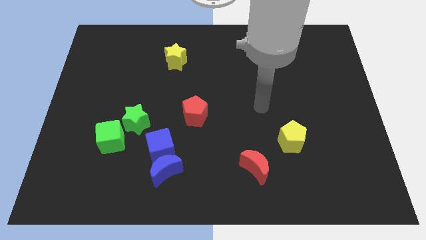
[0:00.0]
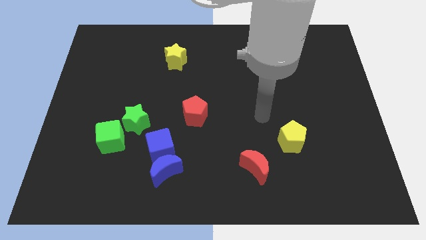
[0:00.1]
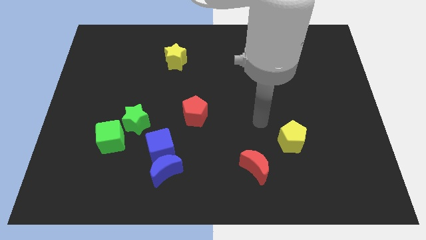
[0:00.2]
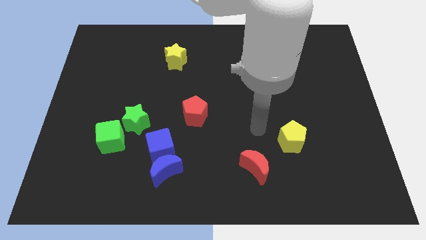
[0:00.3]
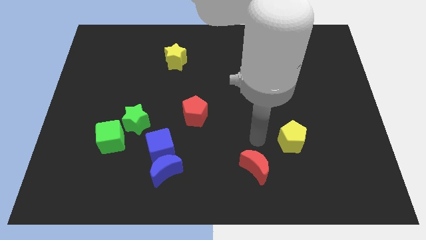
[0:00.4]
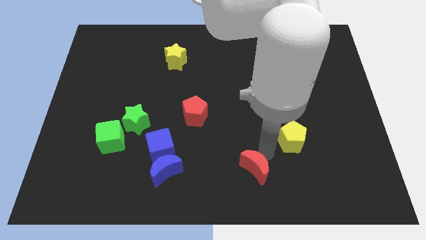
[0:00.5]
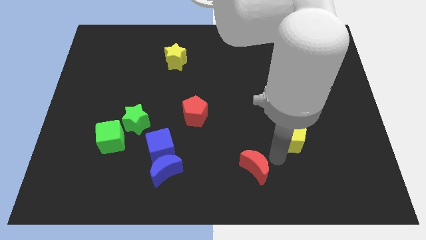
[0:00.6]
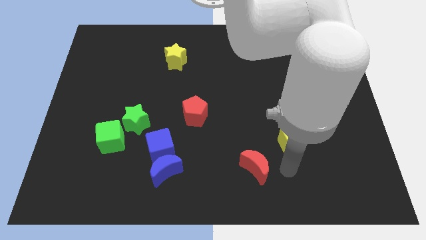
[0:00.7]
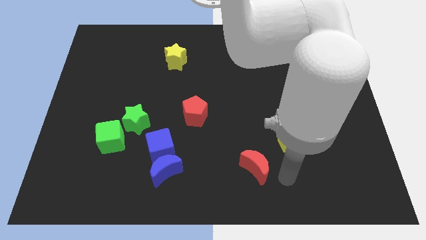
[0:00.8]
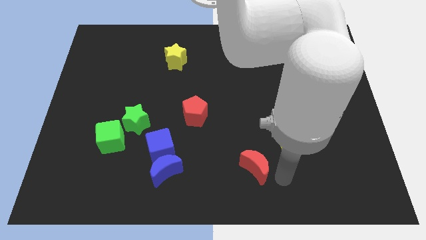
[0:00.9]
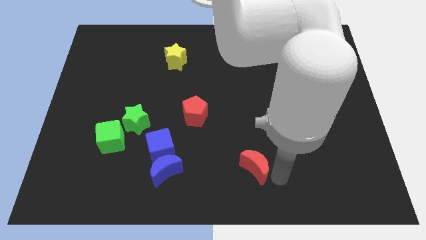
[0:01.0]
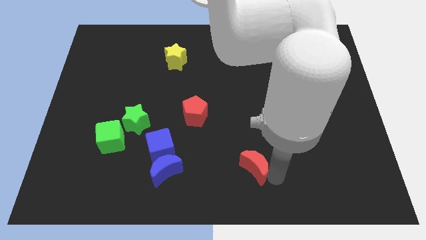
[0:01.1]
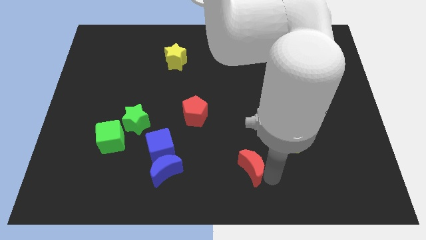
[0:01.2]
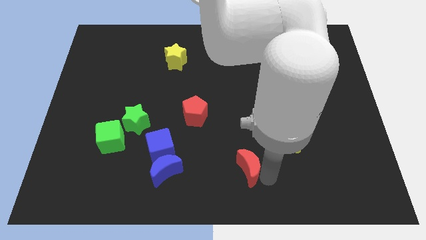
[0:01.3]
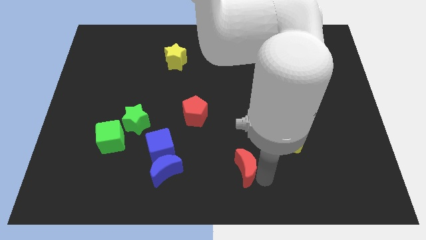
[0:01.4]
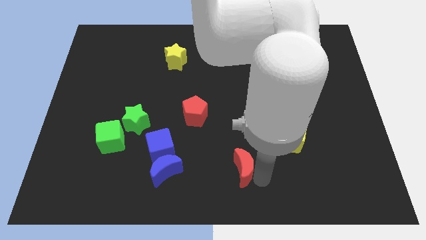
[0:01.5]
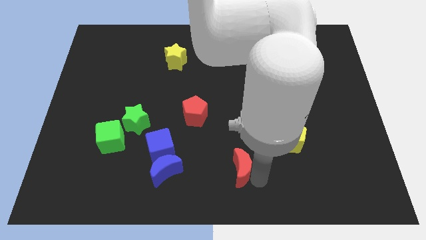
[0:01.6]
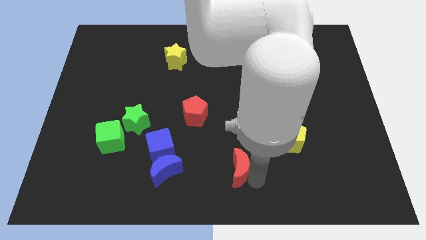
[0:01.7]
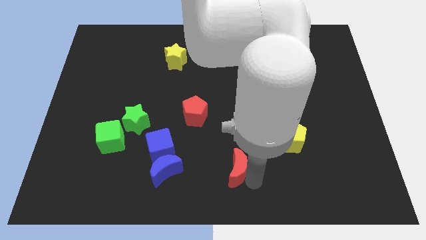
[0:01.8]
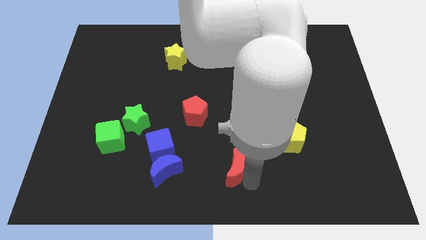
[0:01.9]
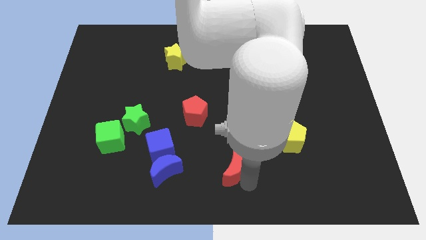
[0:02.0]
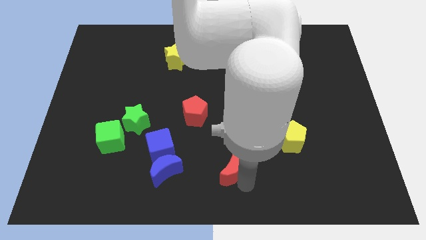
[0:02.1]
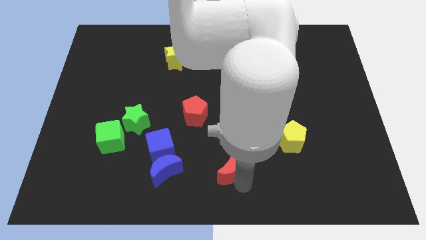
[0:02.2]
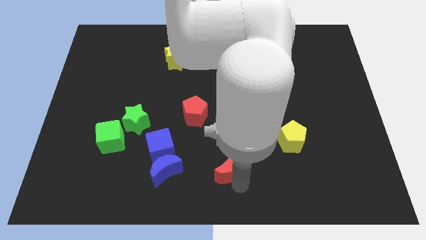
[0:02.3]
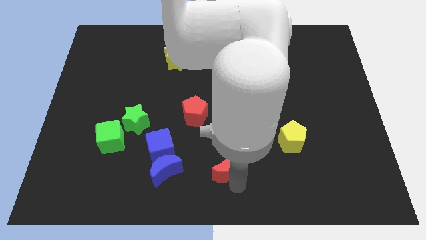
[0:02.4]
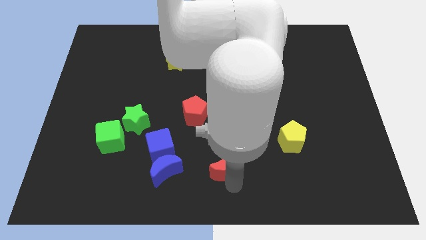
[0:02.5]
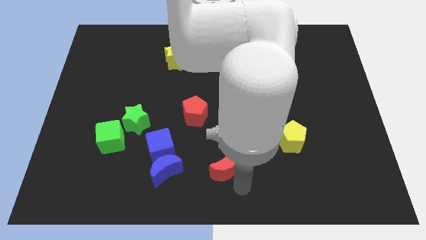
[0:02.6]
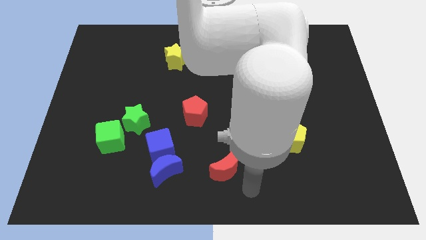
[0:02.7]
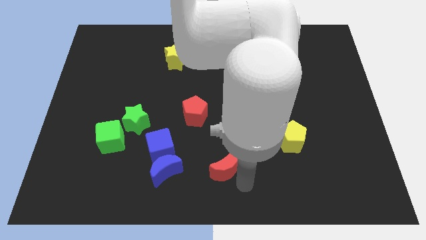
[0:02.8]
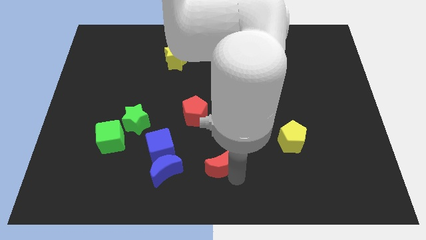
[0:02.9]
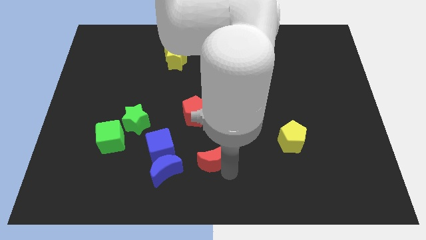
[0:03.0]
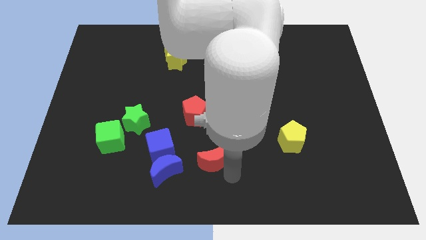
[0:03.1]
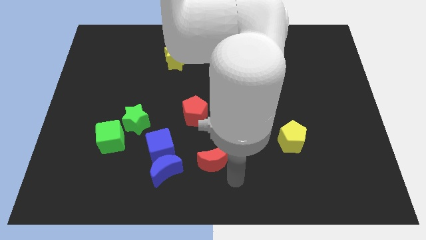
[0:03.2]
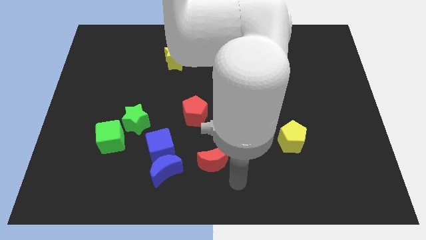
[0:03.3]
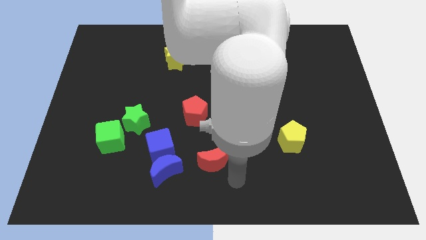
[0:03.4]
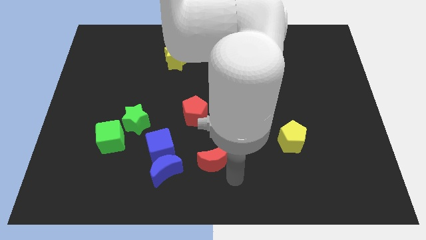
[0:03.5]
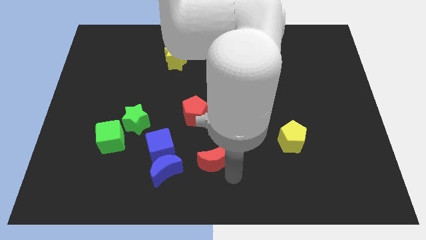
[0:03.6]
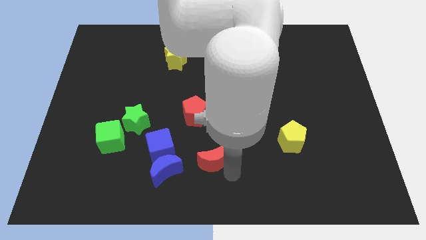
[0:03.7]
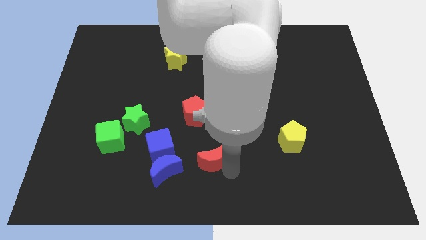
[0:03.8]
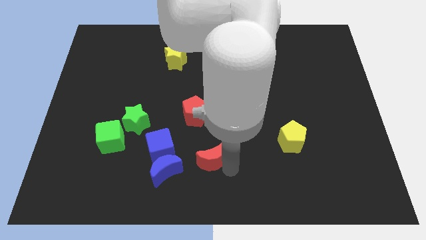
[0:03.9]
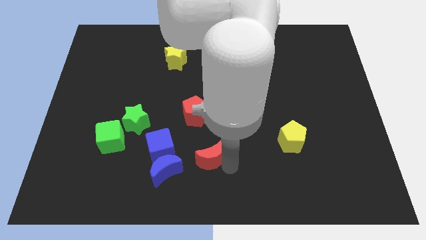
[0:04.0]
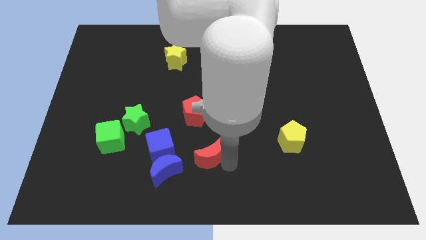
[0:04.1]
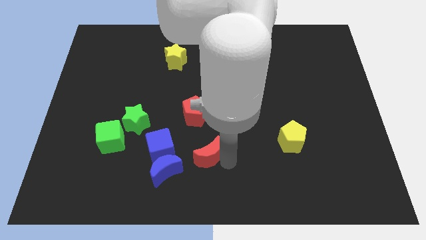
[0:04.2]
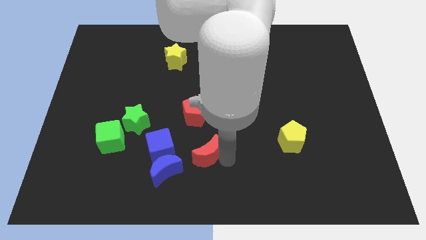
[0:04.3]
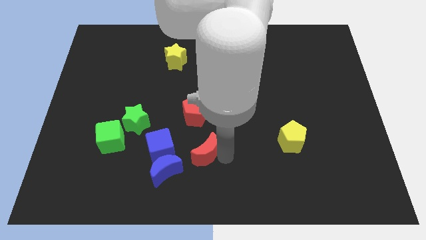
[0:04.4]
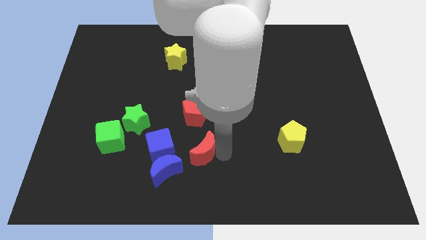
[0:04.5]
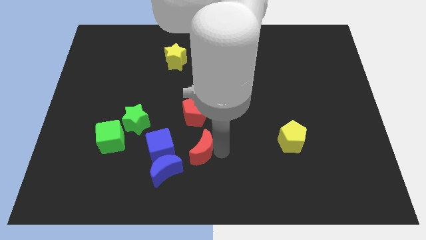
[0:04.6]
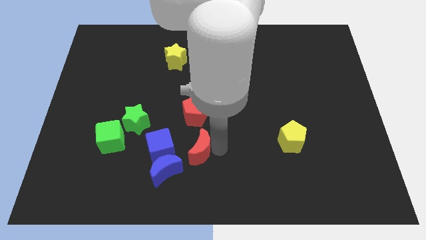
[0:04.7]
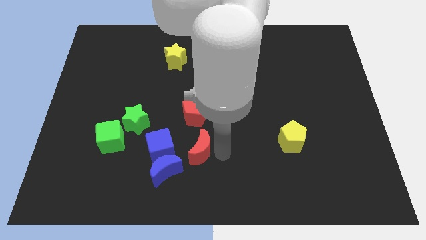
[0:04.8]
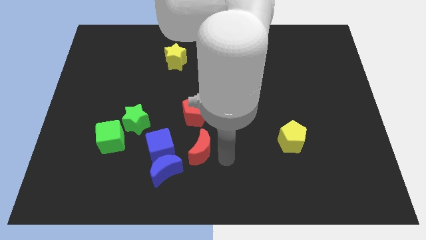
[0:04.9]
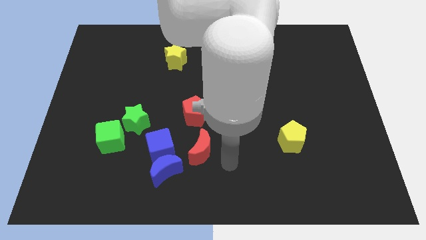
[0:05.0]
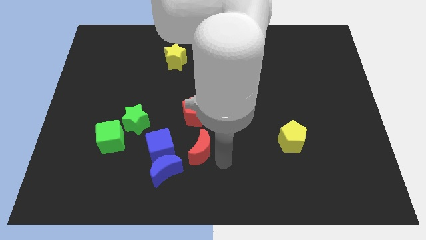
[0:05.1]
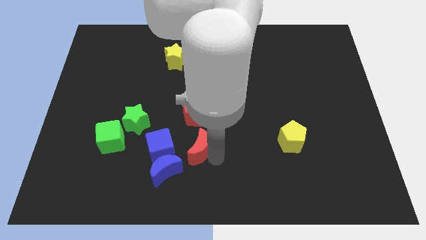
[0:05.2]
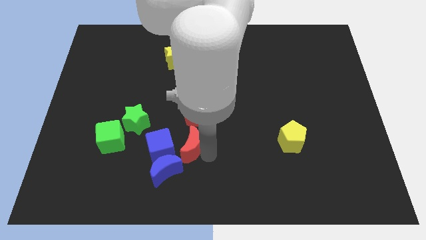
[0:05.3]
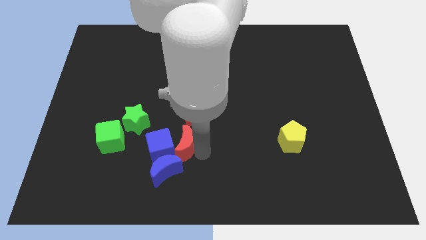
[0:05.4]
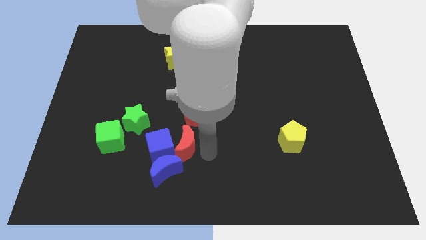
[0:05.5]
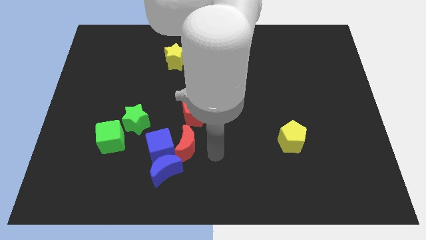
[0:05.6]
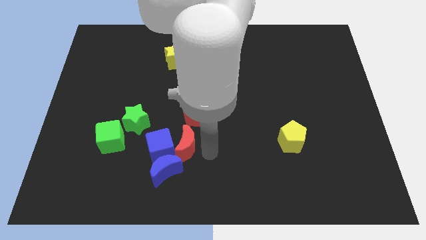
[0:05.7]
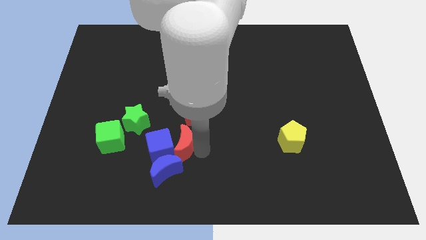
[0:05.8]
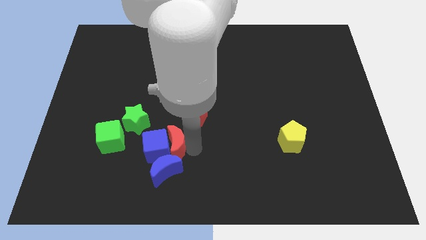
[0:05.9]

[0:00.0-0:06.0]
push the red moon just right of the green cube

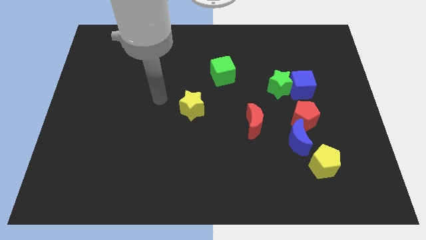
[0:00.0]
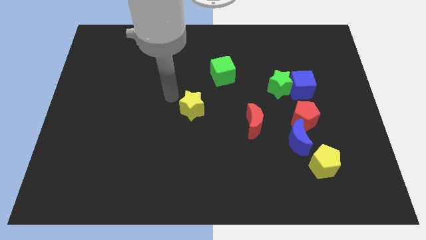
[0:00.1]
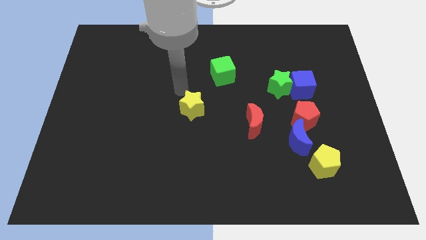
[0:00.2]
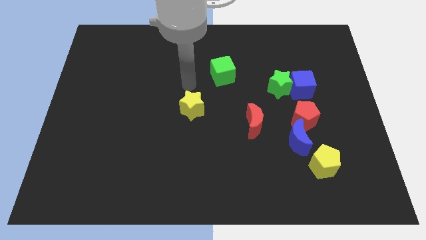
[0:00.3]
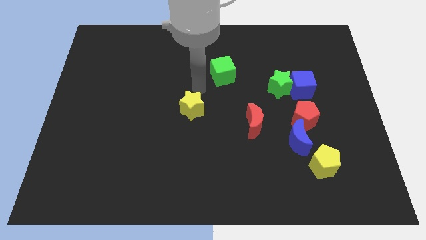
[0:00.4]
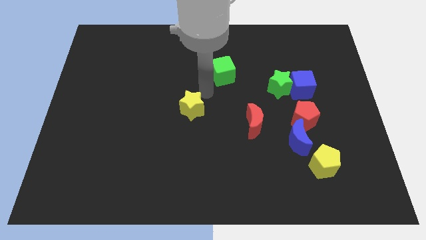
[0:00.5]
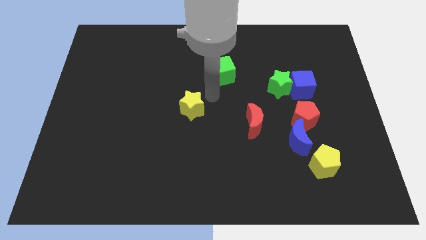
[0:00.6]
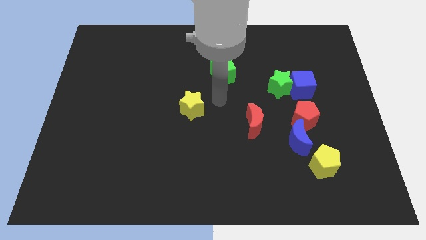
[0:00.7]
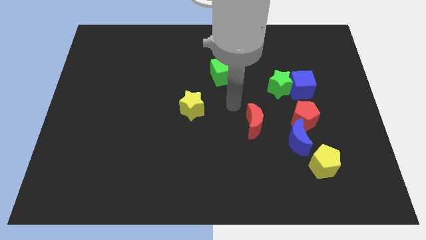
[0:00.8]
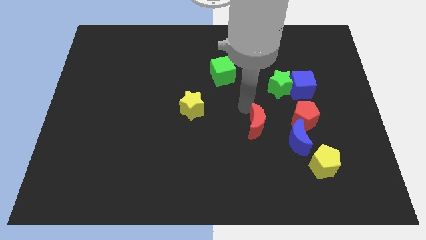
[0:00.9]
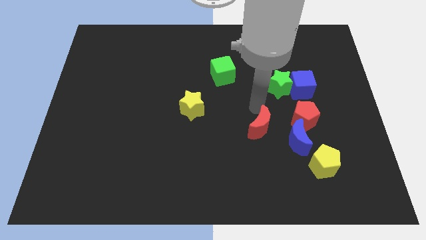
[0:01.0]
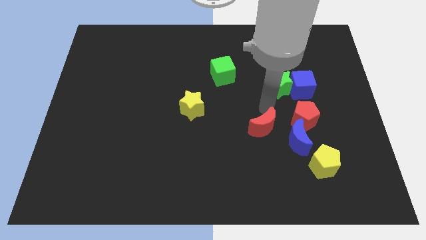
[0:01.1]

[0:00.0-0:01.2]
push the green star to the top side of the red moon
